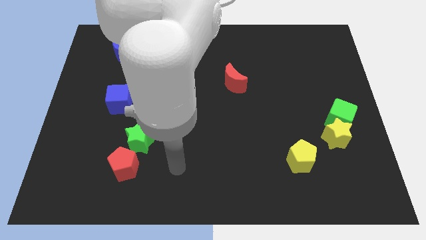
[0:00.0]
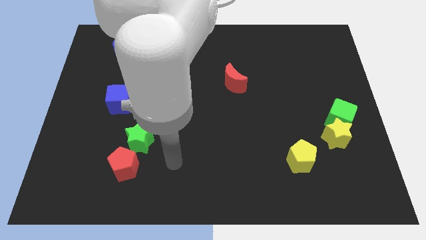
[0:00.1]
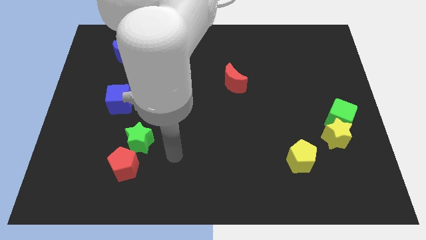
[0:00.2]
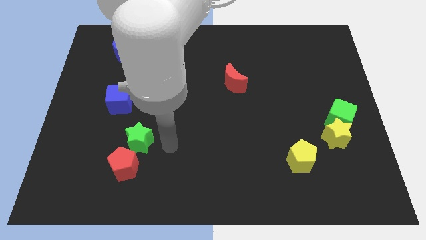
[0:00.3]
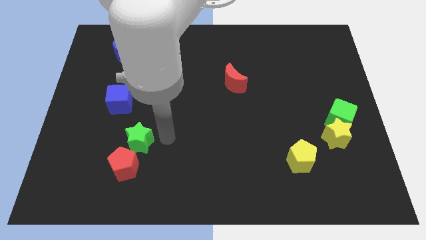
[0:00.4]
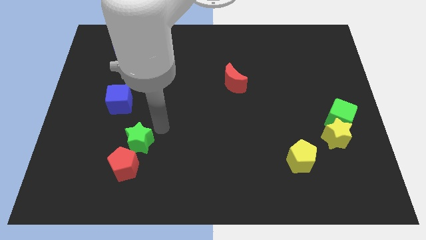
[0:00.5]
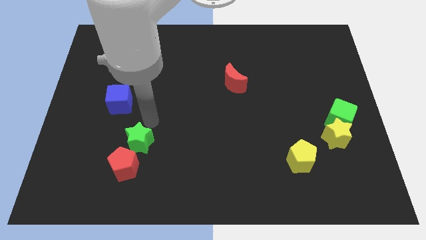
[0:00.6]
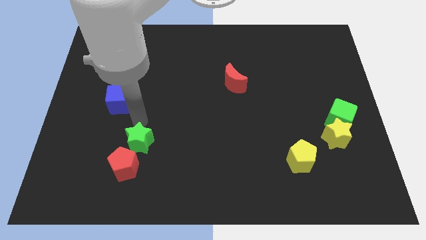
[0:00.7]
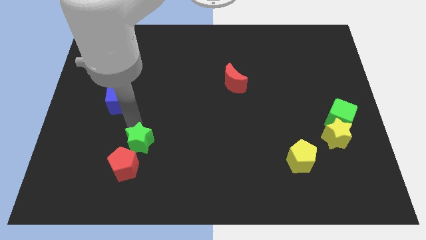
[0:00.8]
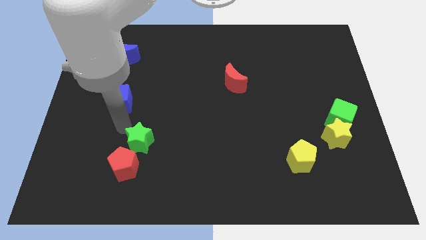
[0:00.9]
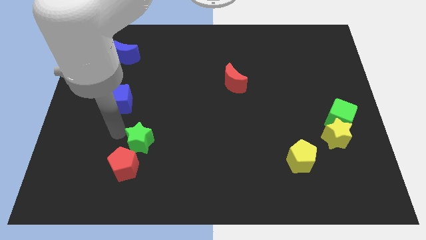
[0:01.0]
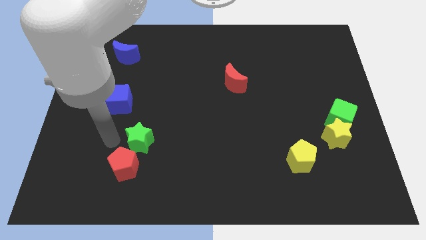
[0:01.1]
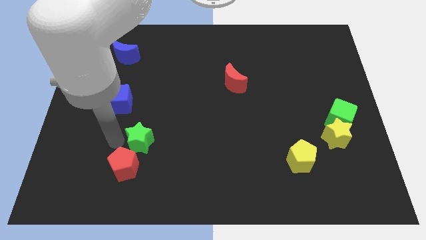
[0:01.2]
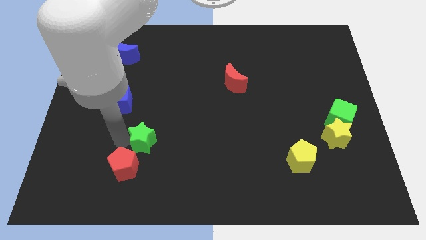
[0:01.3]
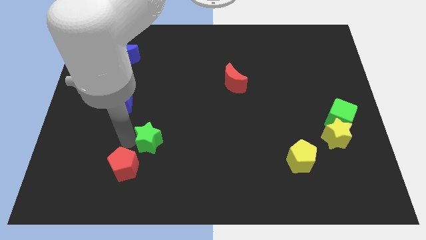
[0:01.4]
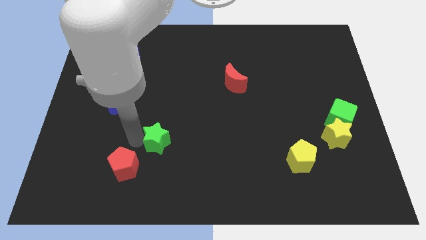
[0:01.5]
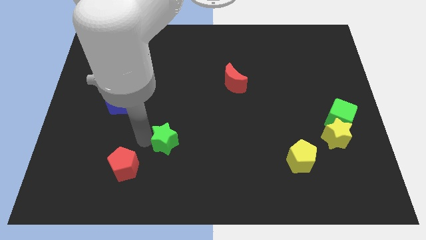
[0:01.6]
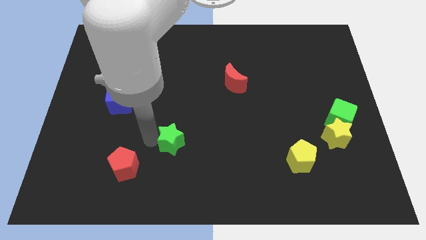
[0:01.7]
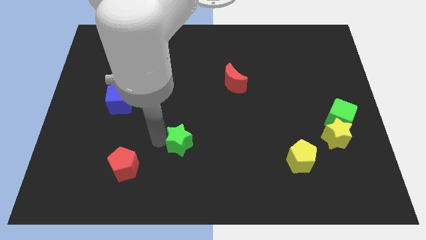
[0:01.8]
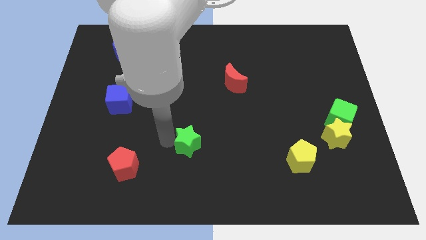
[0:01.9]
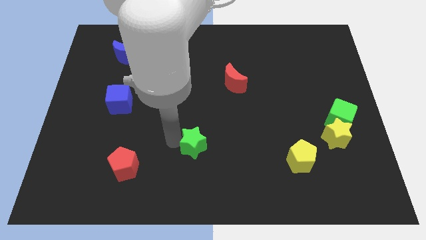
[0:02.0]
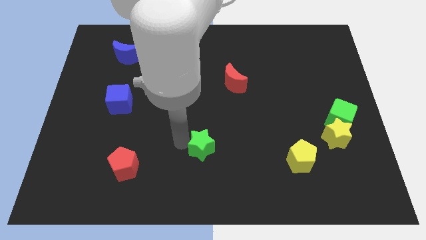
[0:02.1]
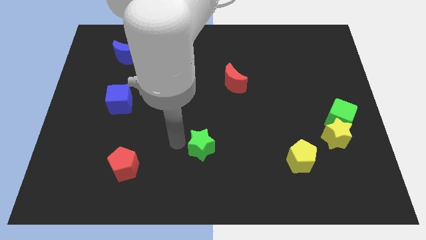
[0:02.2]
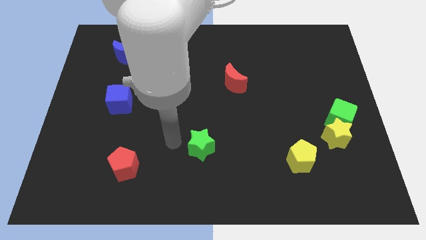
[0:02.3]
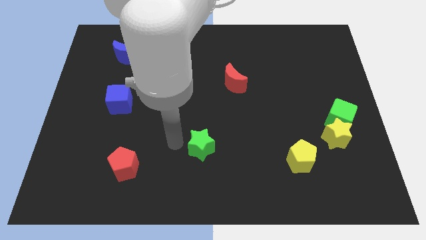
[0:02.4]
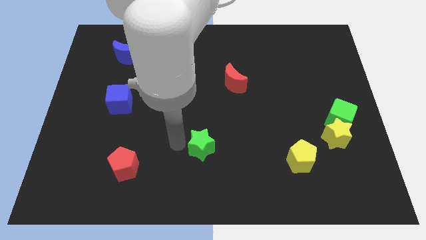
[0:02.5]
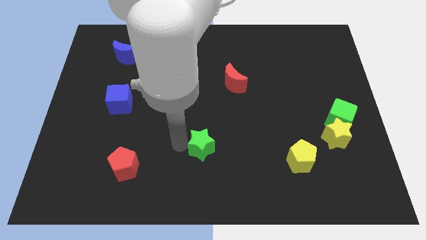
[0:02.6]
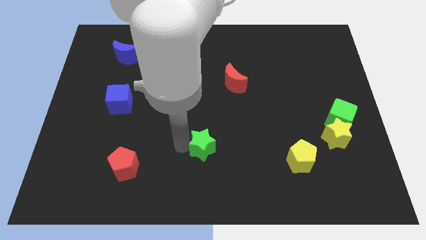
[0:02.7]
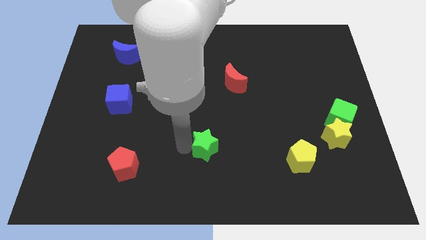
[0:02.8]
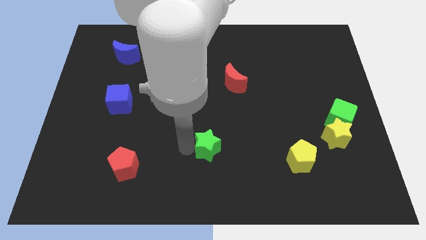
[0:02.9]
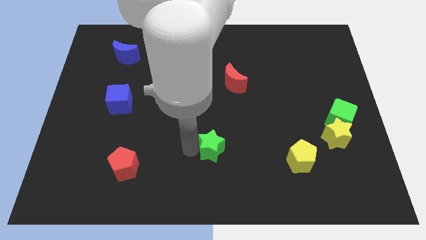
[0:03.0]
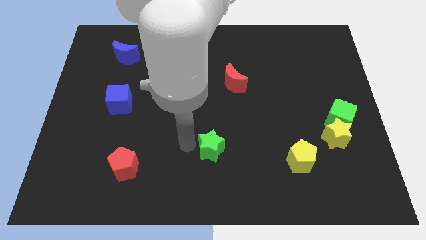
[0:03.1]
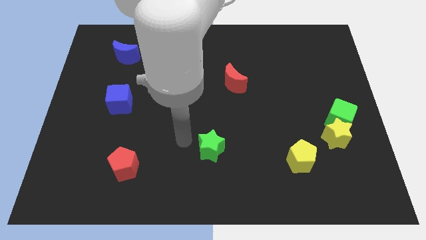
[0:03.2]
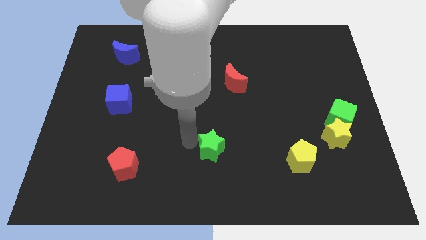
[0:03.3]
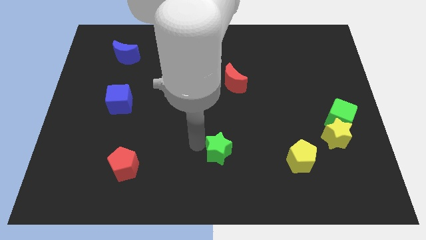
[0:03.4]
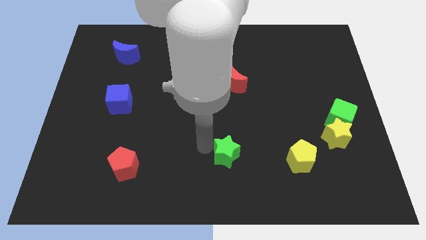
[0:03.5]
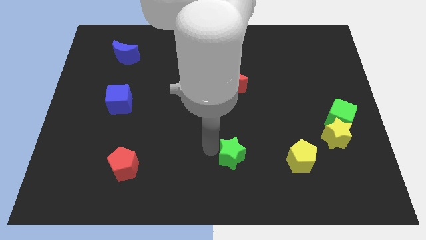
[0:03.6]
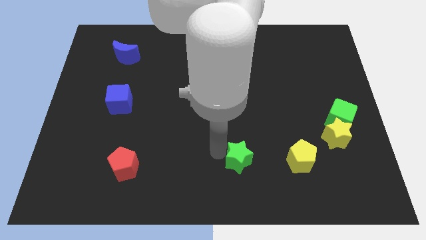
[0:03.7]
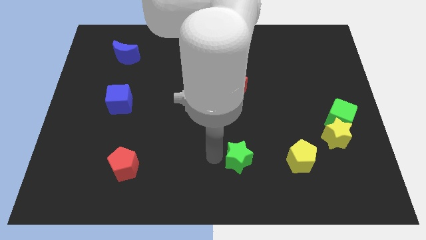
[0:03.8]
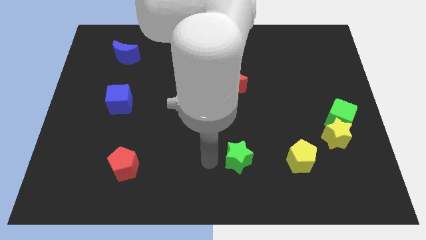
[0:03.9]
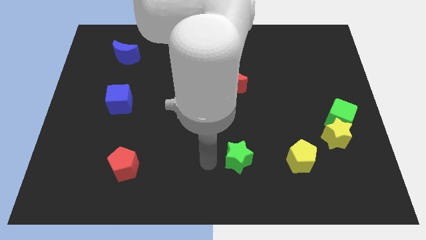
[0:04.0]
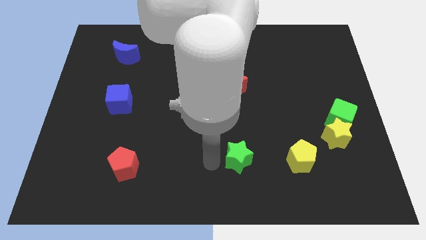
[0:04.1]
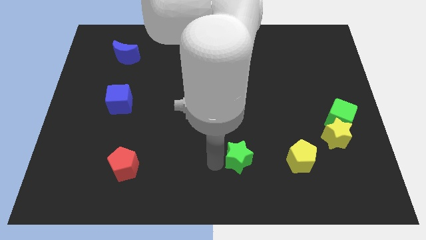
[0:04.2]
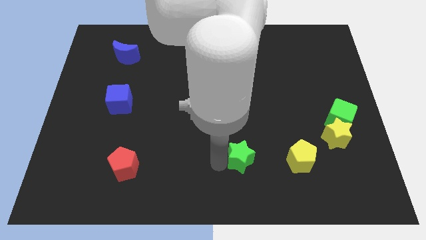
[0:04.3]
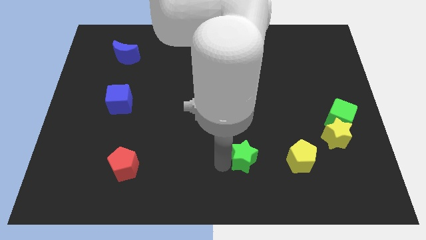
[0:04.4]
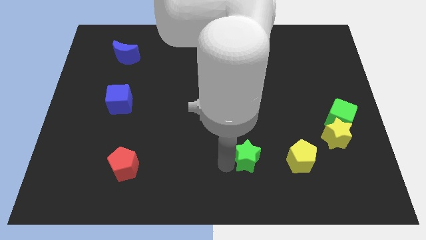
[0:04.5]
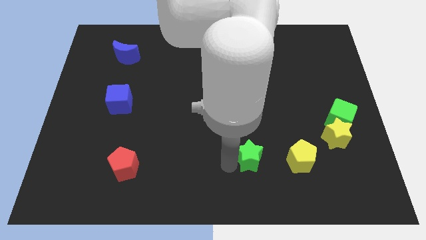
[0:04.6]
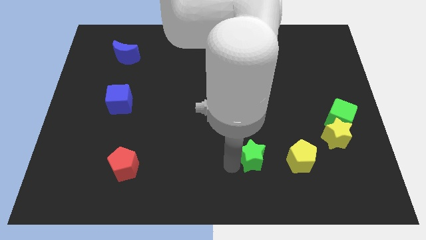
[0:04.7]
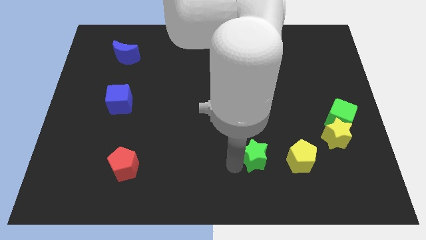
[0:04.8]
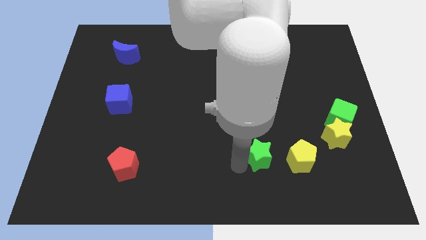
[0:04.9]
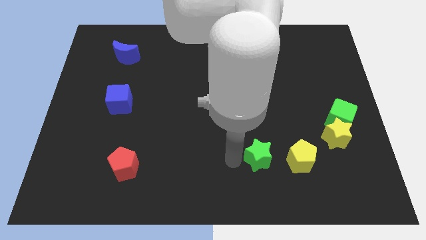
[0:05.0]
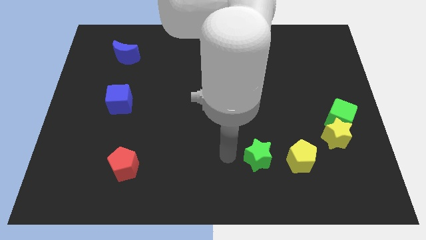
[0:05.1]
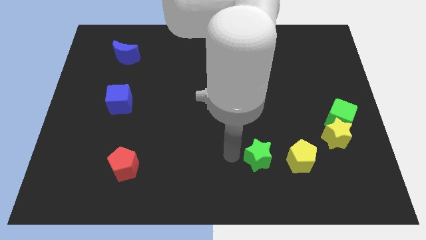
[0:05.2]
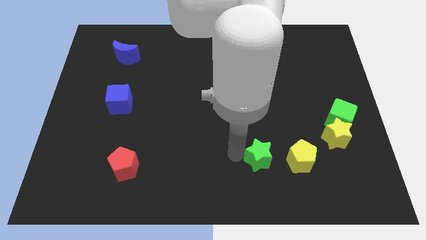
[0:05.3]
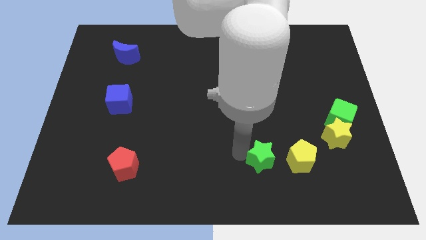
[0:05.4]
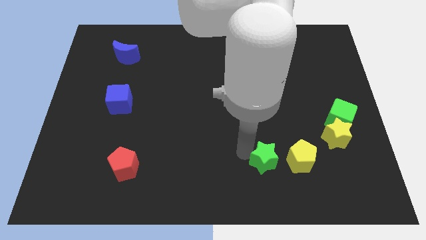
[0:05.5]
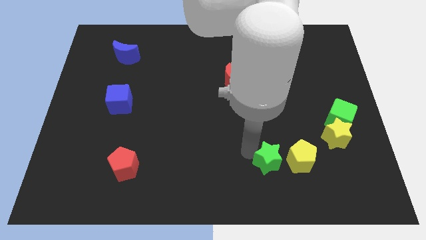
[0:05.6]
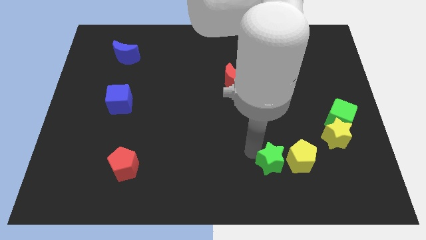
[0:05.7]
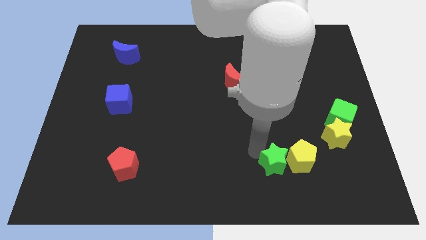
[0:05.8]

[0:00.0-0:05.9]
push the green star towards the yellow pentagon
